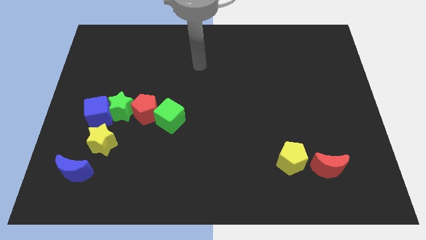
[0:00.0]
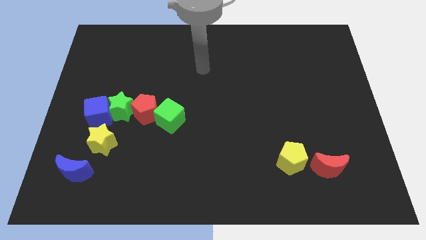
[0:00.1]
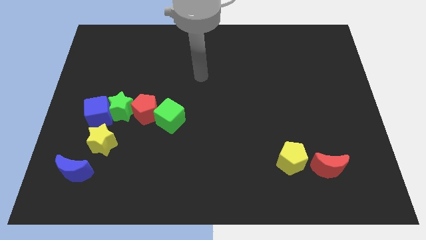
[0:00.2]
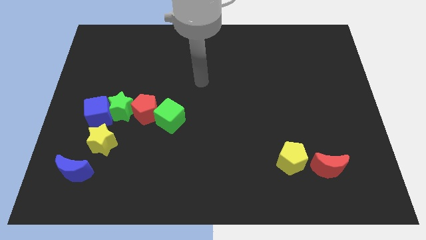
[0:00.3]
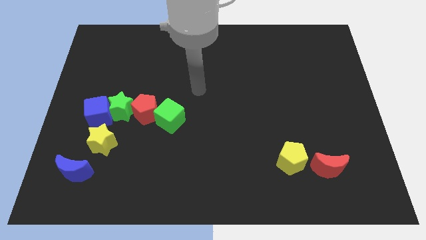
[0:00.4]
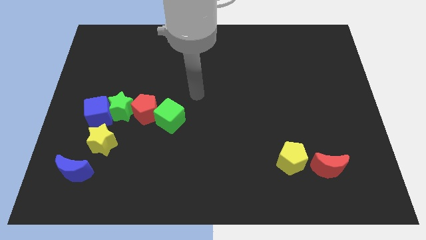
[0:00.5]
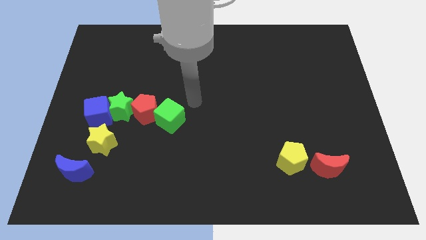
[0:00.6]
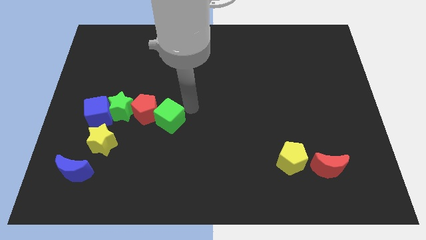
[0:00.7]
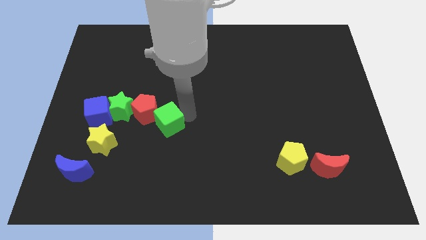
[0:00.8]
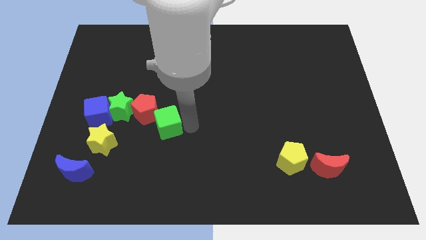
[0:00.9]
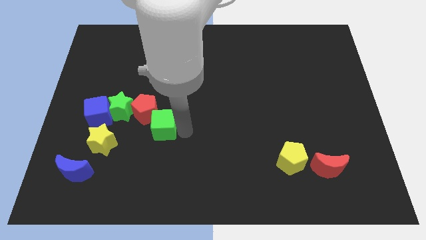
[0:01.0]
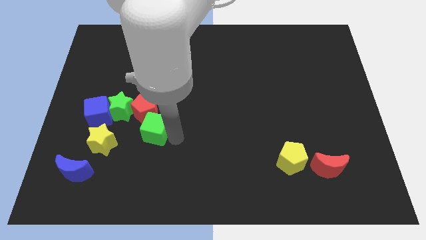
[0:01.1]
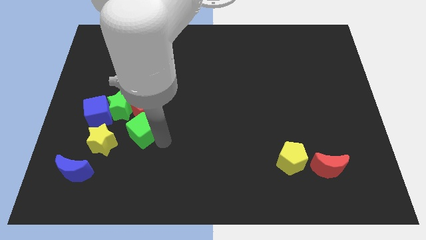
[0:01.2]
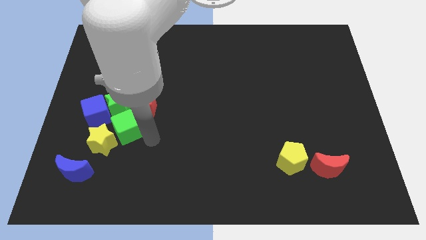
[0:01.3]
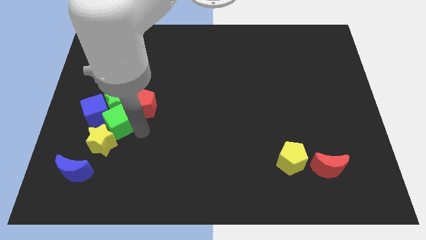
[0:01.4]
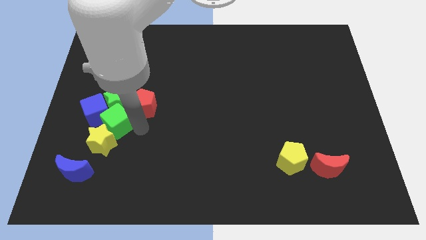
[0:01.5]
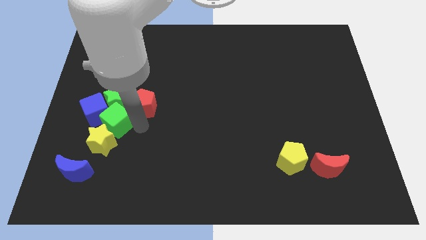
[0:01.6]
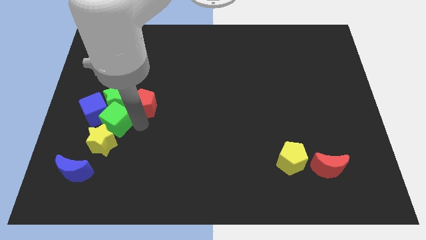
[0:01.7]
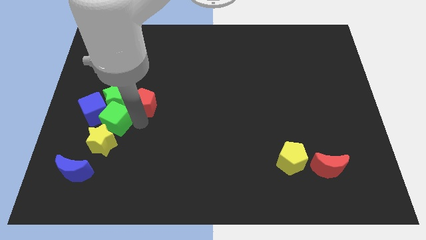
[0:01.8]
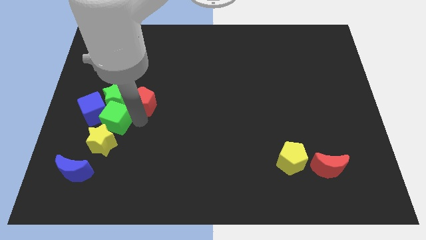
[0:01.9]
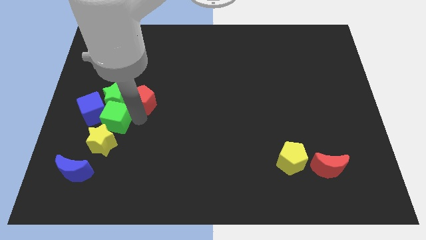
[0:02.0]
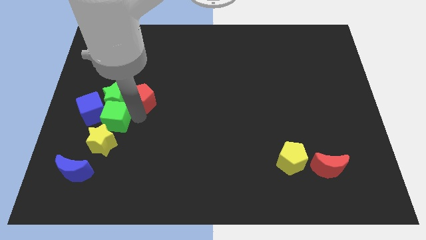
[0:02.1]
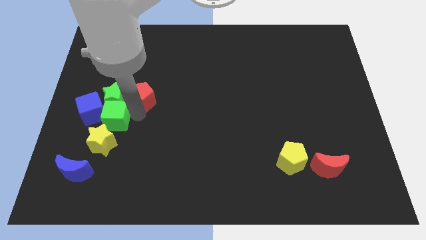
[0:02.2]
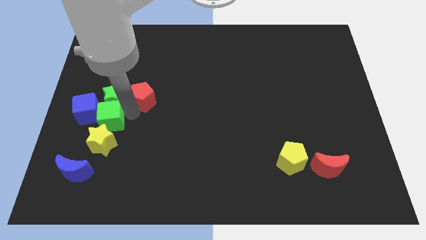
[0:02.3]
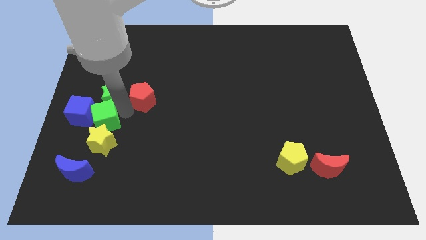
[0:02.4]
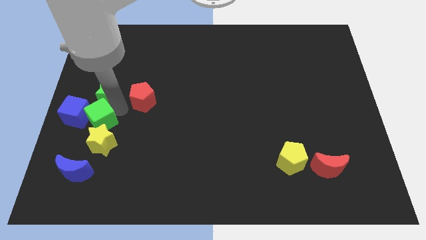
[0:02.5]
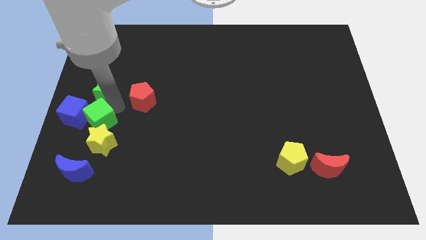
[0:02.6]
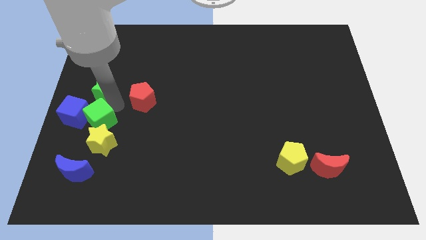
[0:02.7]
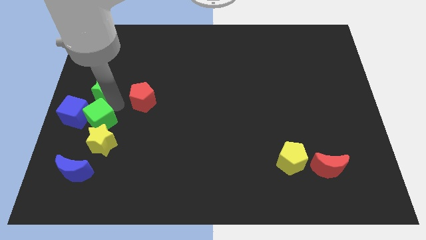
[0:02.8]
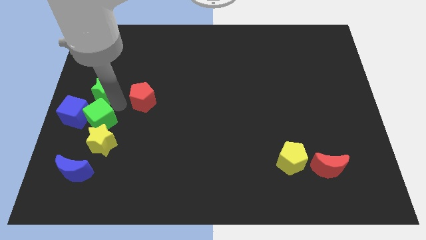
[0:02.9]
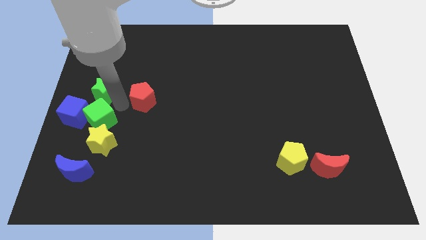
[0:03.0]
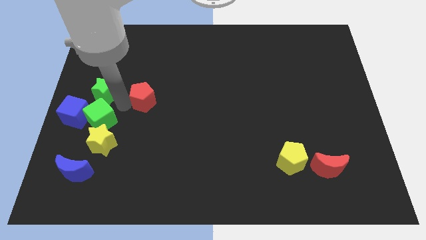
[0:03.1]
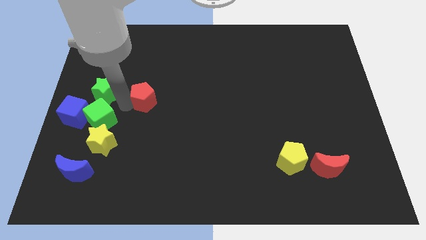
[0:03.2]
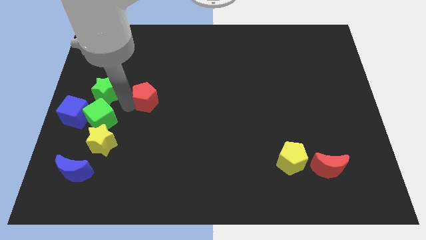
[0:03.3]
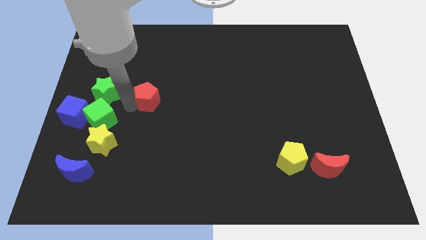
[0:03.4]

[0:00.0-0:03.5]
move the red pentagon away from the green star and green cube

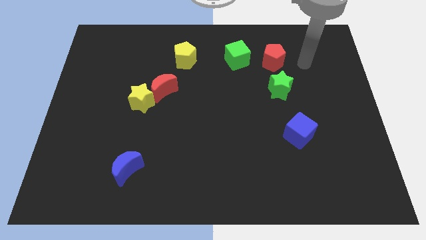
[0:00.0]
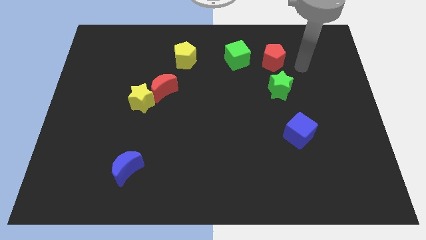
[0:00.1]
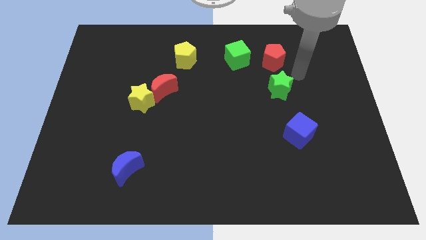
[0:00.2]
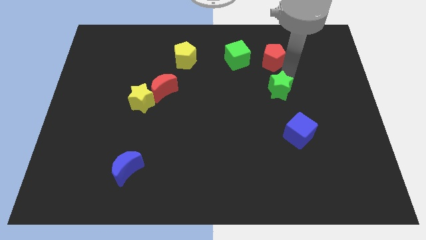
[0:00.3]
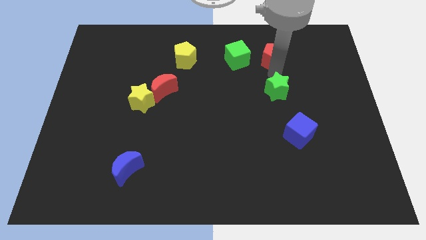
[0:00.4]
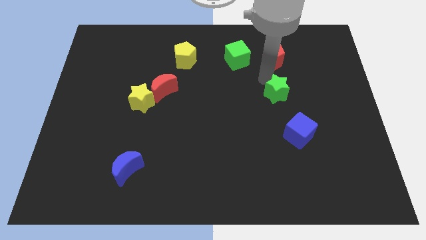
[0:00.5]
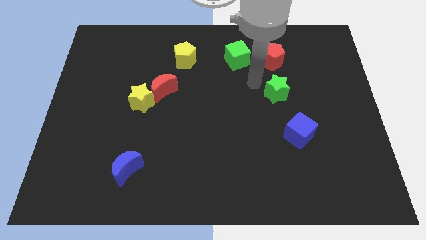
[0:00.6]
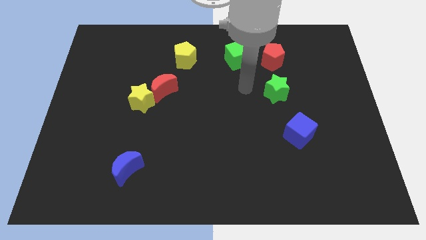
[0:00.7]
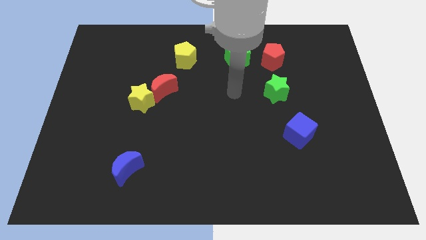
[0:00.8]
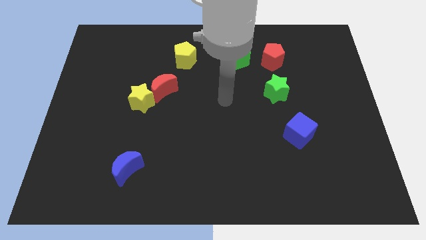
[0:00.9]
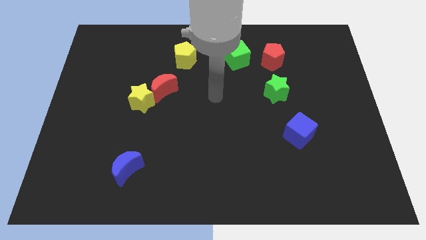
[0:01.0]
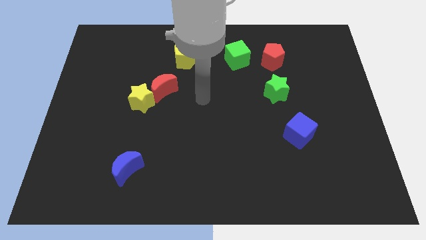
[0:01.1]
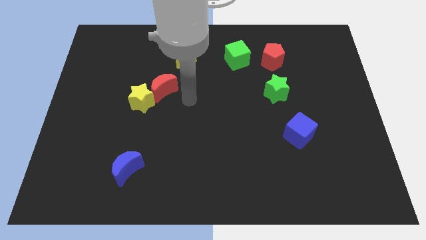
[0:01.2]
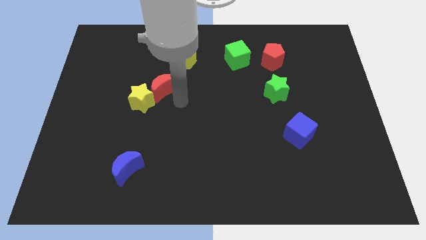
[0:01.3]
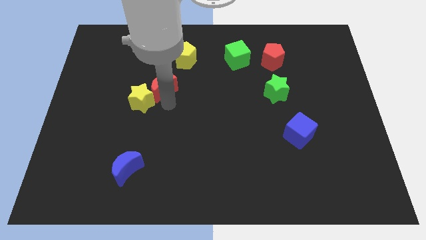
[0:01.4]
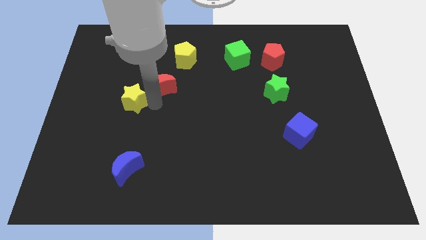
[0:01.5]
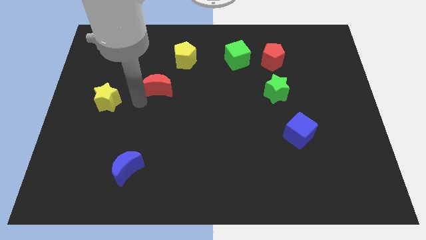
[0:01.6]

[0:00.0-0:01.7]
move the red moon away from the yellow star

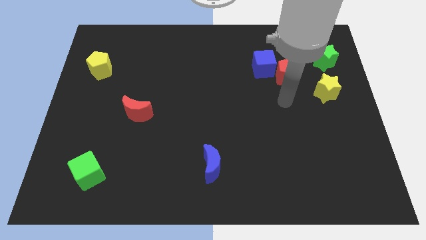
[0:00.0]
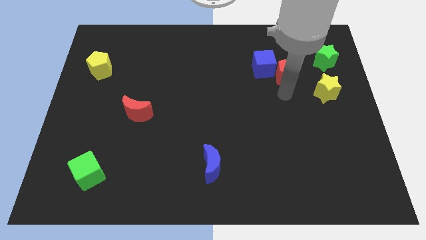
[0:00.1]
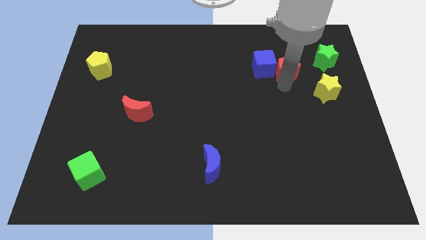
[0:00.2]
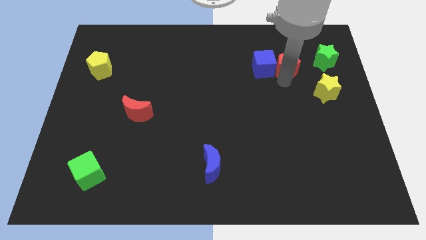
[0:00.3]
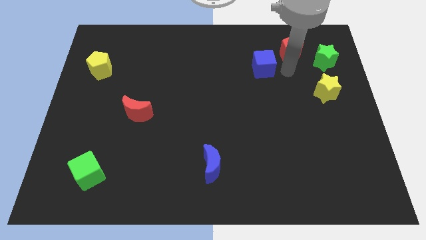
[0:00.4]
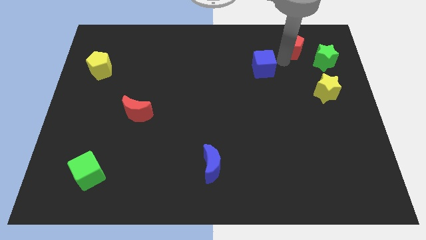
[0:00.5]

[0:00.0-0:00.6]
separate the blue cube from the red pentagon

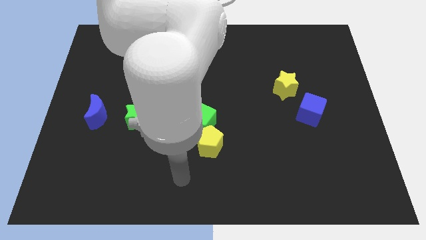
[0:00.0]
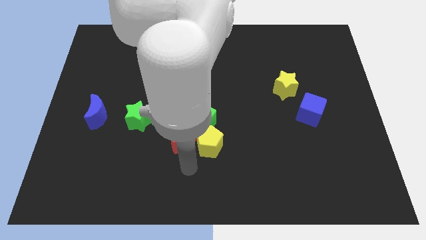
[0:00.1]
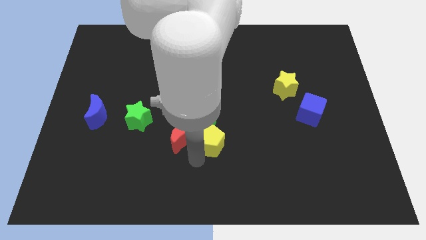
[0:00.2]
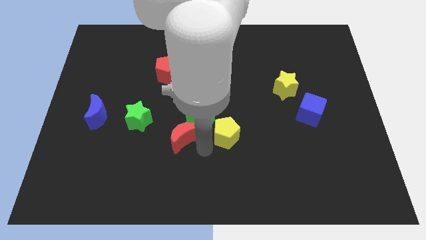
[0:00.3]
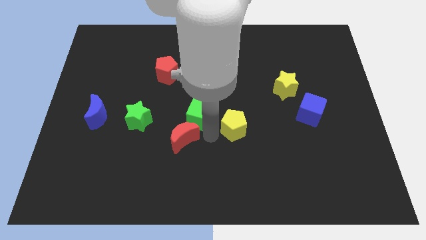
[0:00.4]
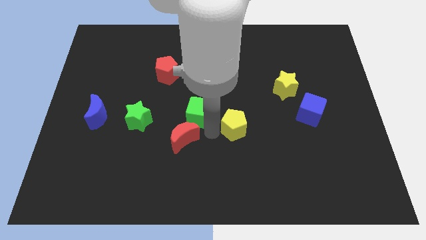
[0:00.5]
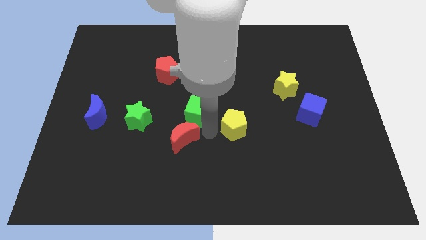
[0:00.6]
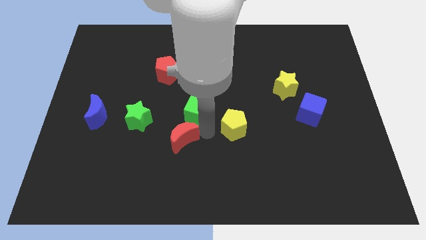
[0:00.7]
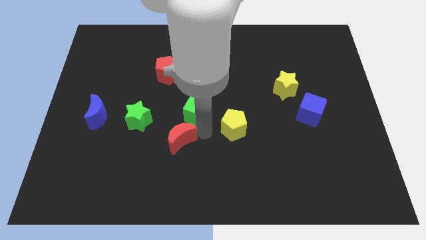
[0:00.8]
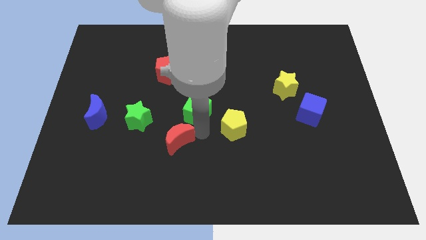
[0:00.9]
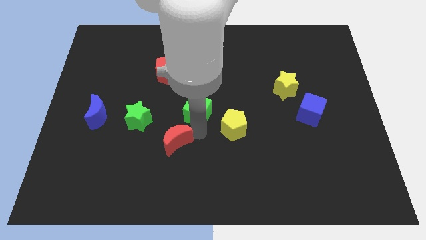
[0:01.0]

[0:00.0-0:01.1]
move the red moon away from the green cube and yellow pentagon

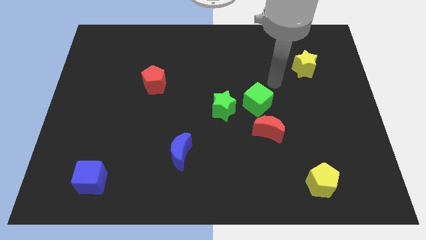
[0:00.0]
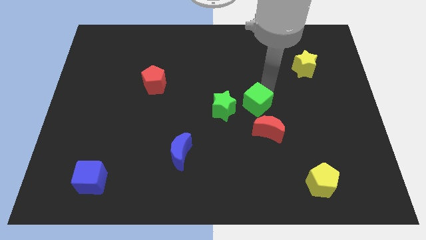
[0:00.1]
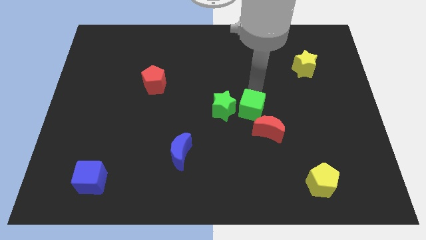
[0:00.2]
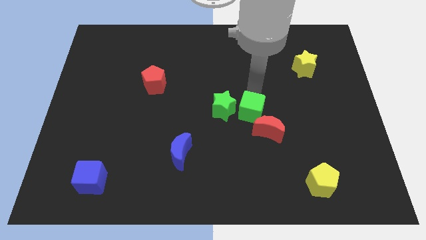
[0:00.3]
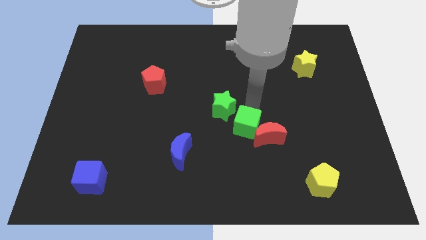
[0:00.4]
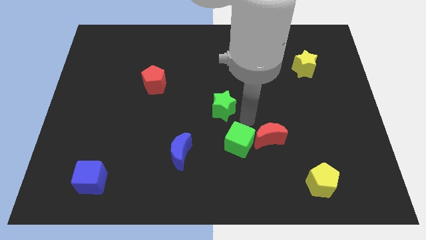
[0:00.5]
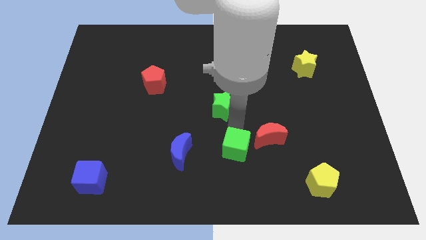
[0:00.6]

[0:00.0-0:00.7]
pull the green star apart from the green cube

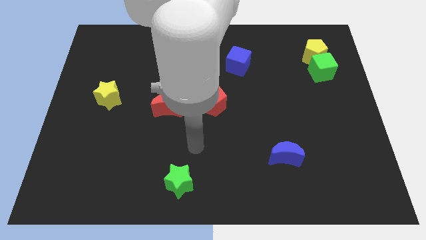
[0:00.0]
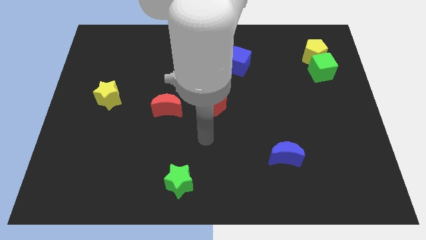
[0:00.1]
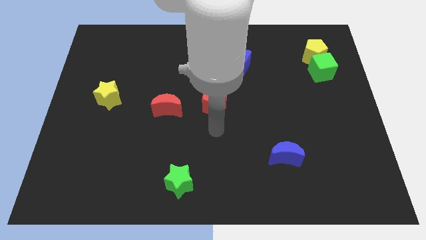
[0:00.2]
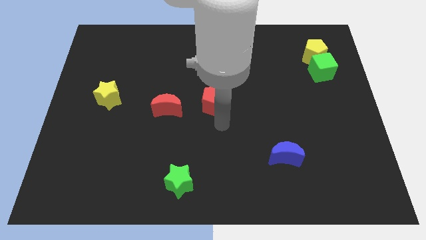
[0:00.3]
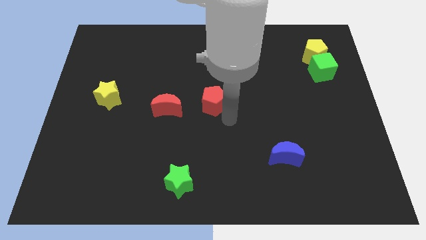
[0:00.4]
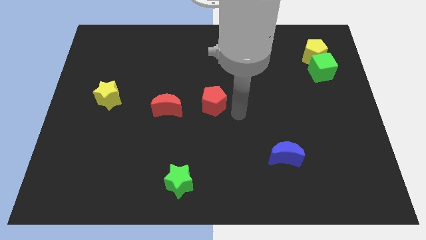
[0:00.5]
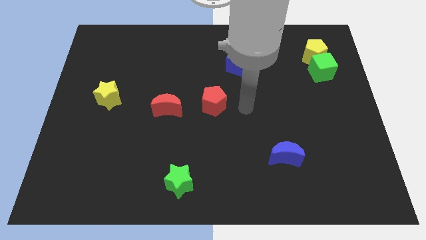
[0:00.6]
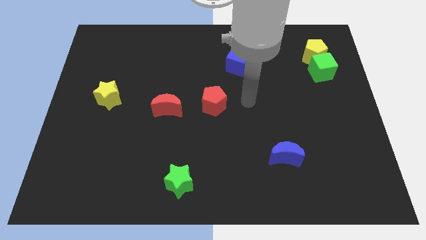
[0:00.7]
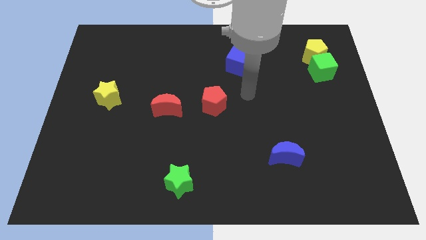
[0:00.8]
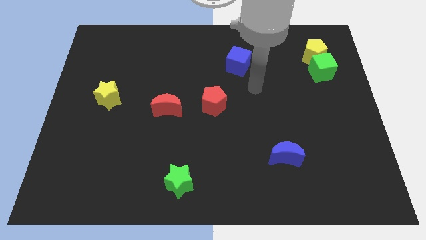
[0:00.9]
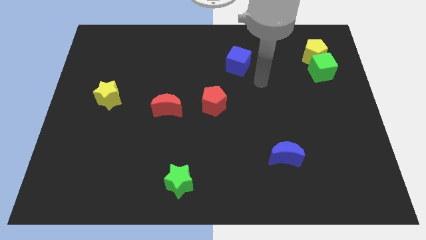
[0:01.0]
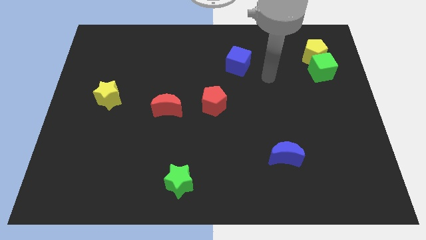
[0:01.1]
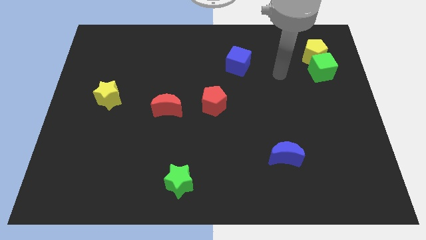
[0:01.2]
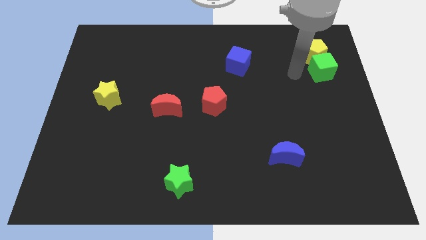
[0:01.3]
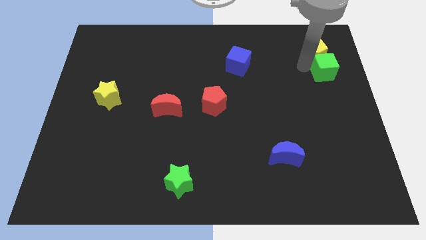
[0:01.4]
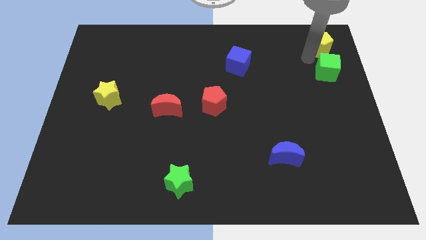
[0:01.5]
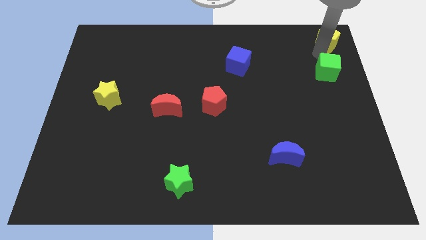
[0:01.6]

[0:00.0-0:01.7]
separate the green cube from the yellow pentagon
